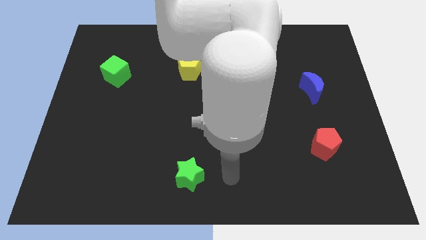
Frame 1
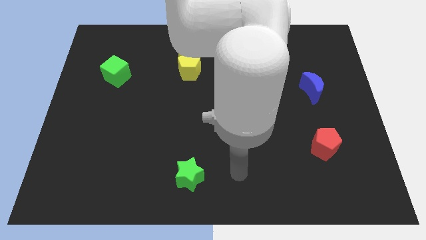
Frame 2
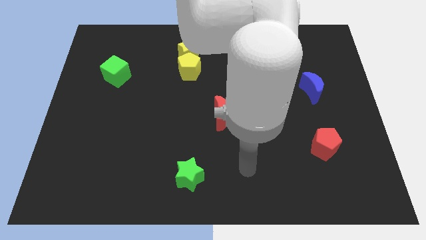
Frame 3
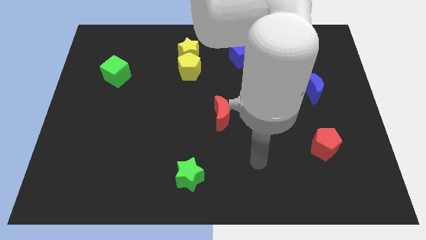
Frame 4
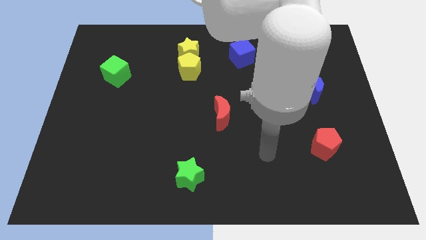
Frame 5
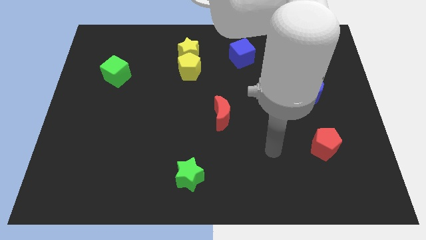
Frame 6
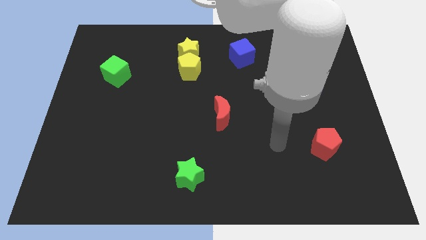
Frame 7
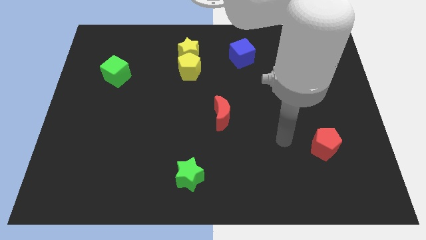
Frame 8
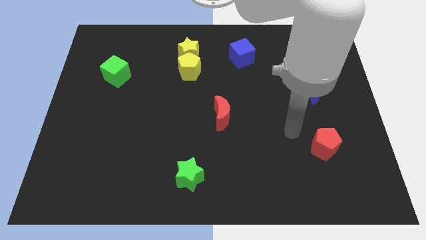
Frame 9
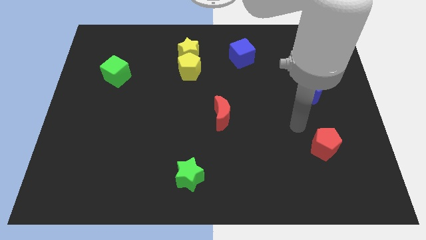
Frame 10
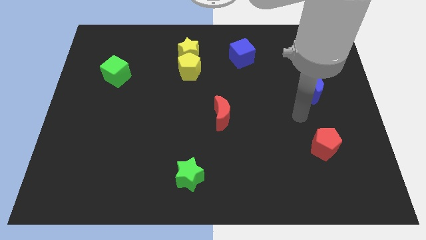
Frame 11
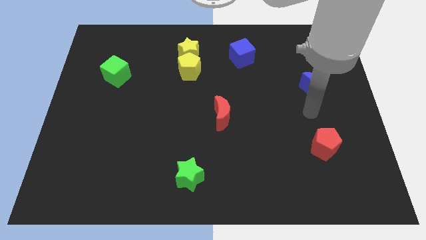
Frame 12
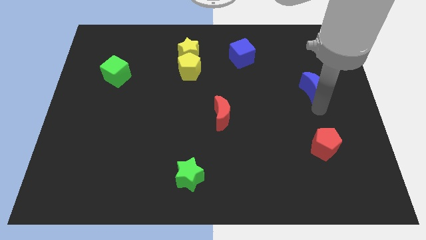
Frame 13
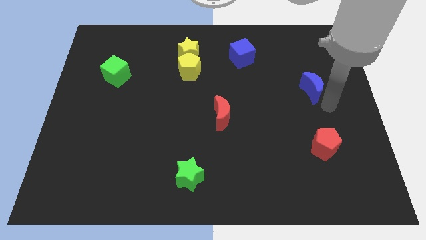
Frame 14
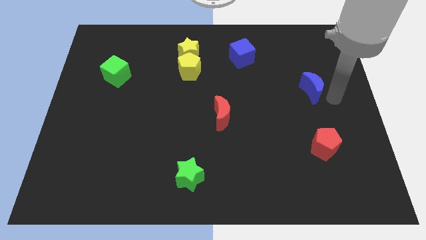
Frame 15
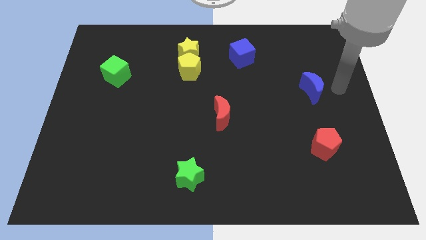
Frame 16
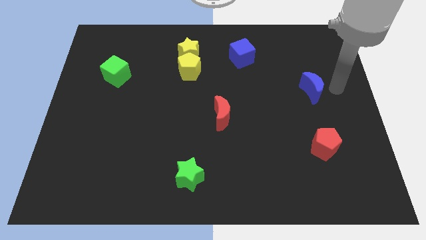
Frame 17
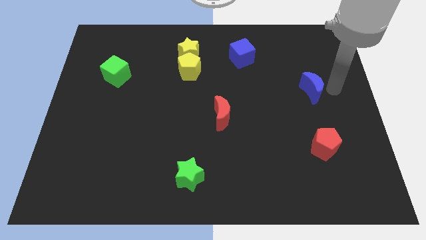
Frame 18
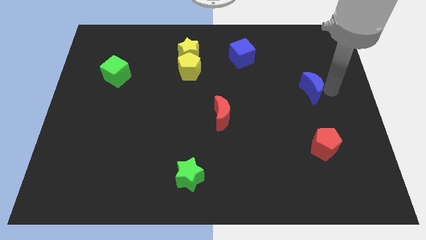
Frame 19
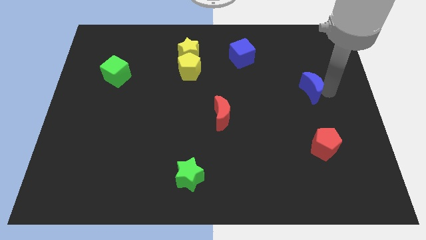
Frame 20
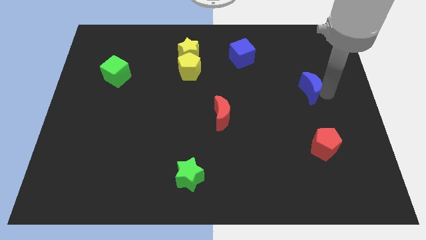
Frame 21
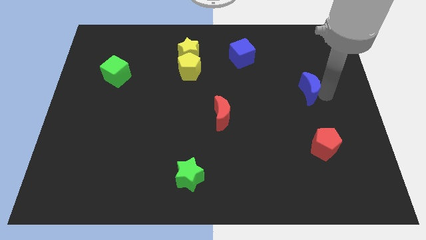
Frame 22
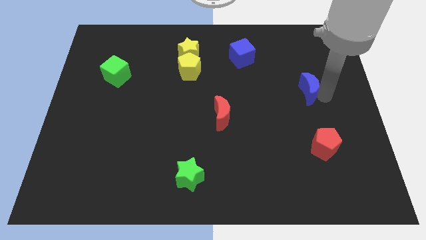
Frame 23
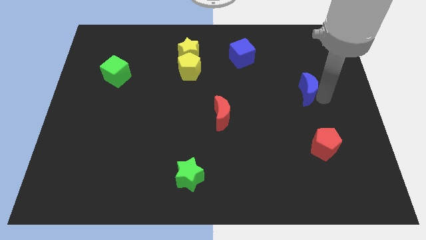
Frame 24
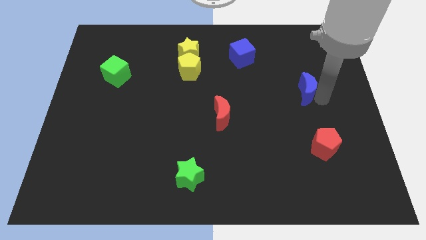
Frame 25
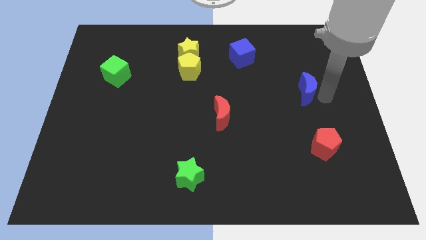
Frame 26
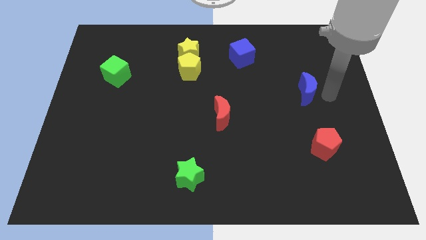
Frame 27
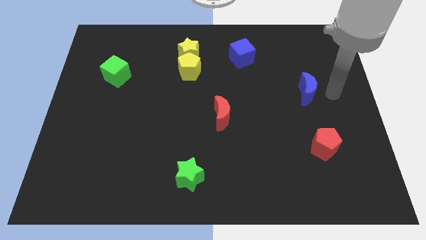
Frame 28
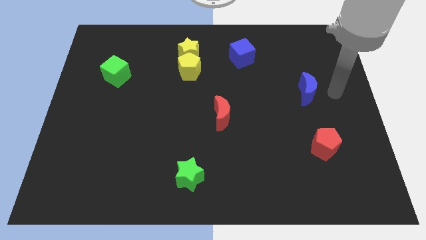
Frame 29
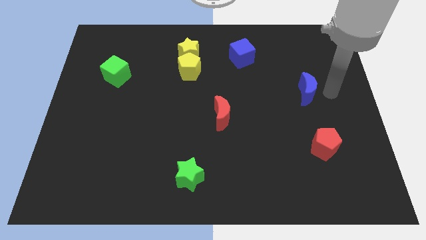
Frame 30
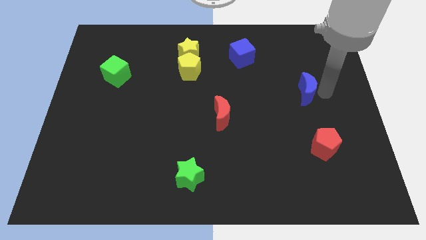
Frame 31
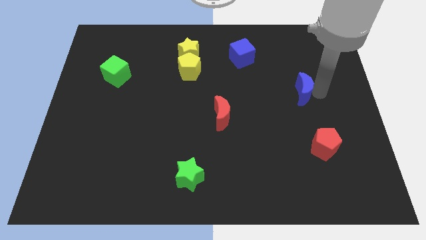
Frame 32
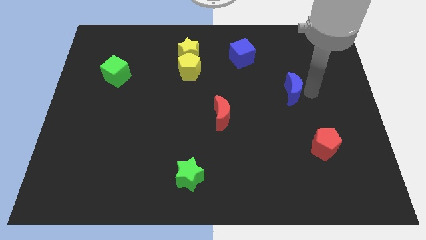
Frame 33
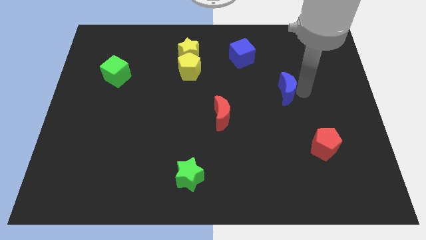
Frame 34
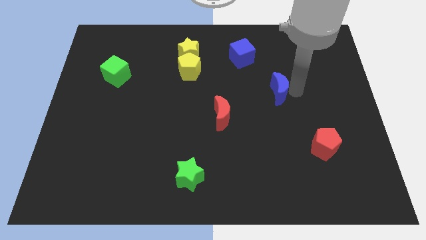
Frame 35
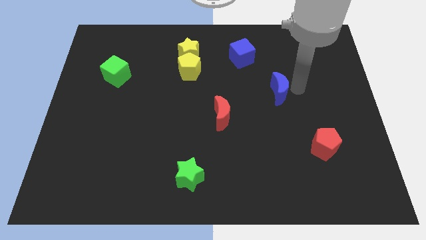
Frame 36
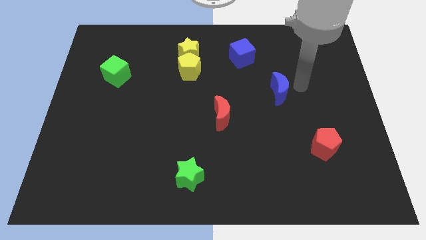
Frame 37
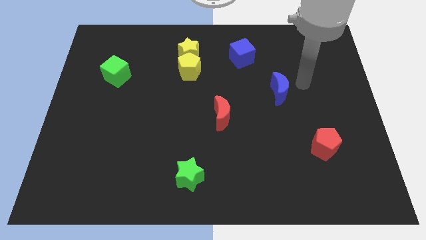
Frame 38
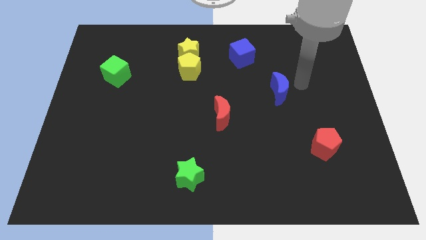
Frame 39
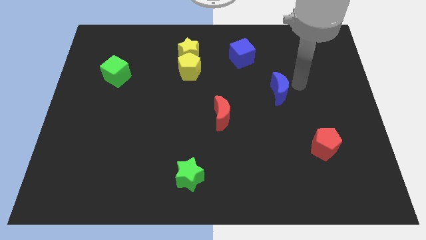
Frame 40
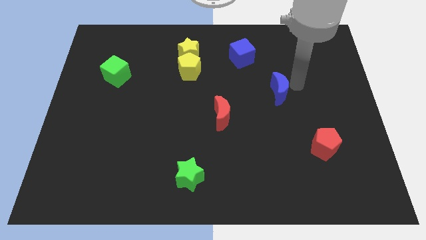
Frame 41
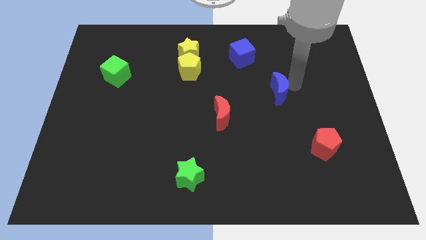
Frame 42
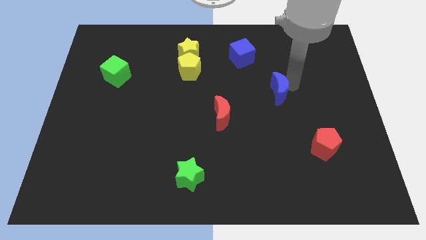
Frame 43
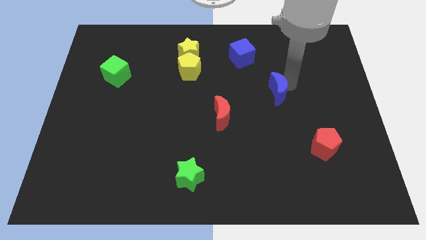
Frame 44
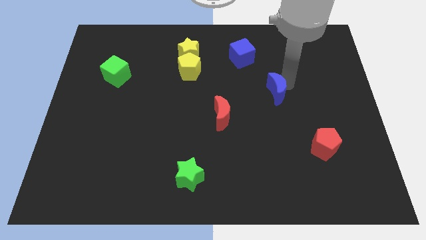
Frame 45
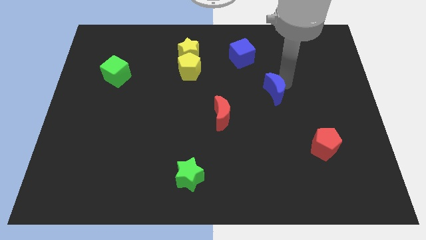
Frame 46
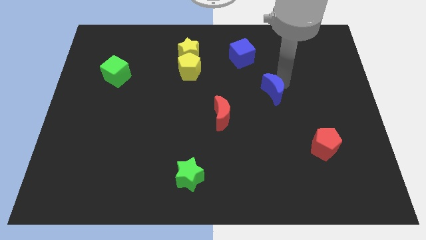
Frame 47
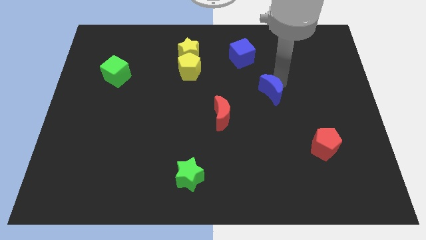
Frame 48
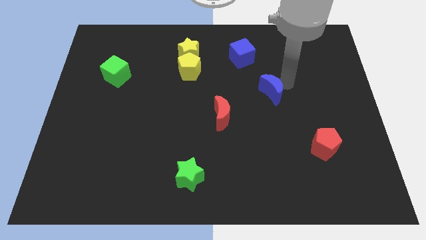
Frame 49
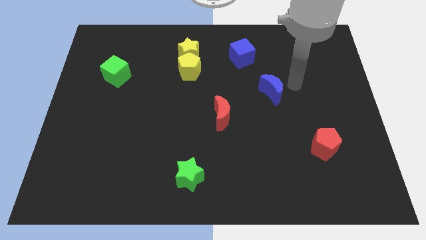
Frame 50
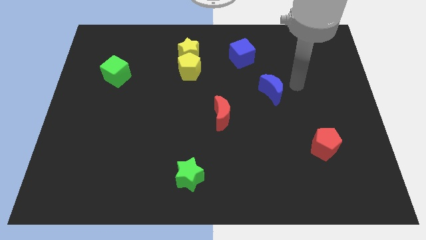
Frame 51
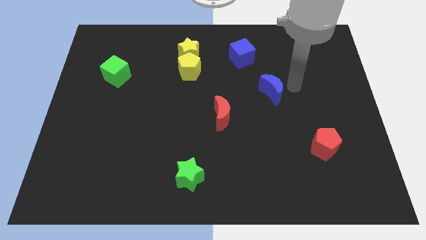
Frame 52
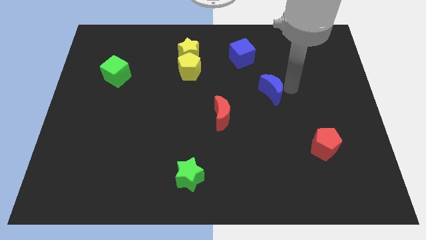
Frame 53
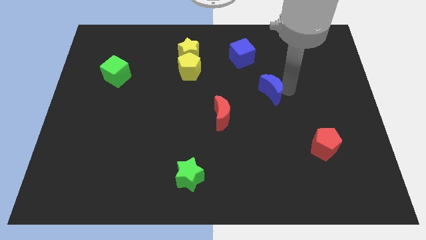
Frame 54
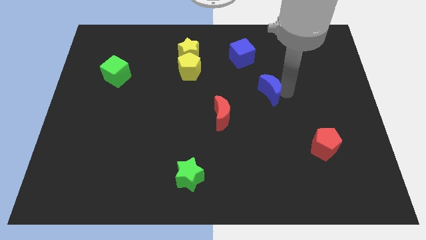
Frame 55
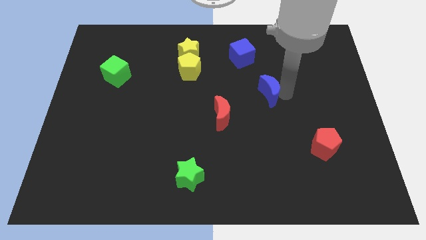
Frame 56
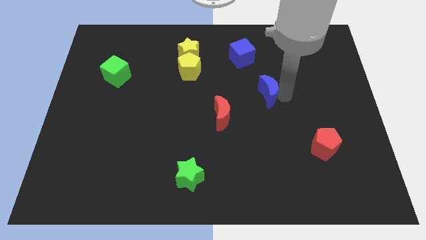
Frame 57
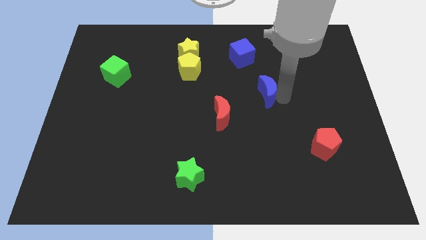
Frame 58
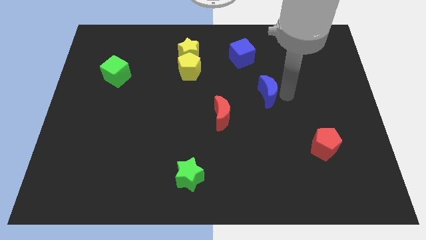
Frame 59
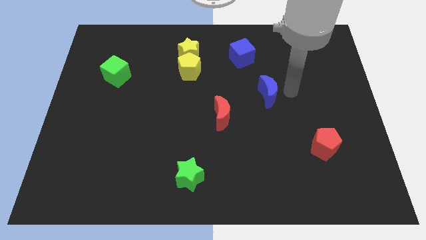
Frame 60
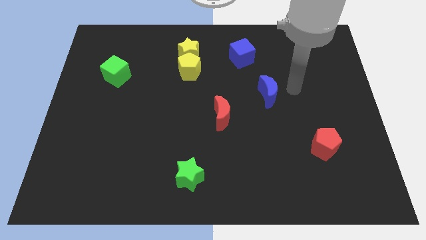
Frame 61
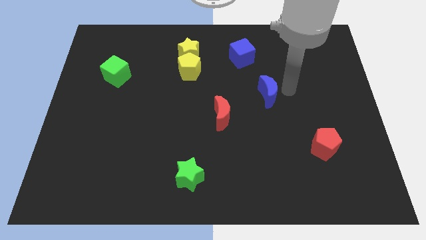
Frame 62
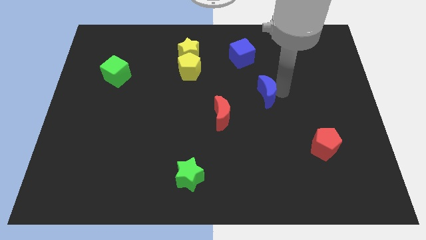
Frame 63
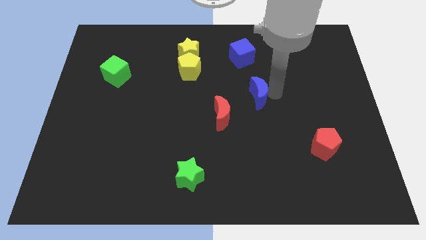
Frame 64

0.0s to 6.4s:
move the blue moon to the middle of the board
